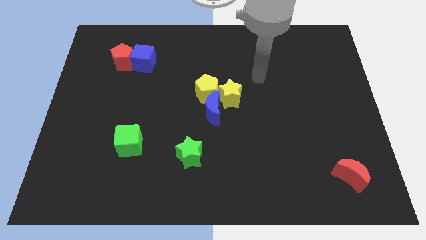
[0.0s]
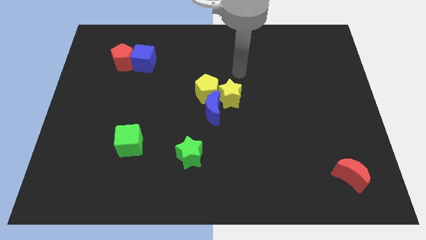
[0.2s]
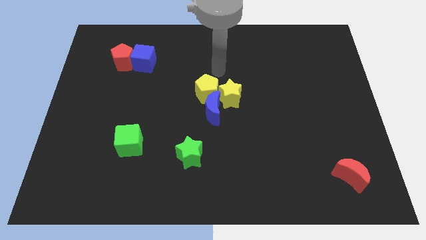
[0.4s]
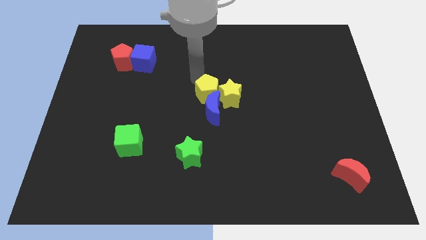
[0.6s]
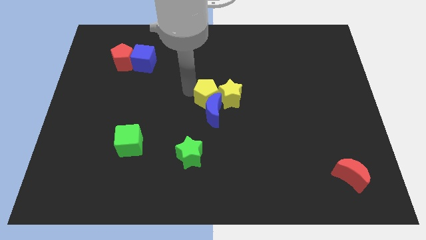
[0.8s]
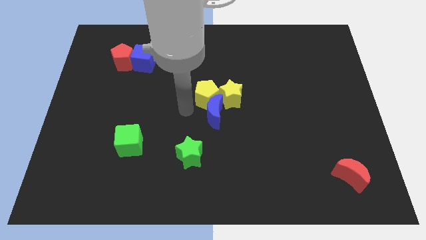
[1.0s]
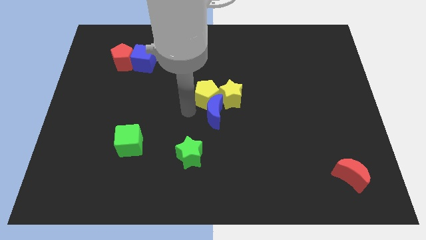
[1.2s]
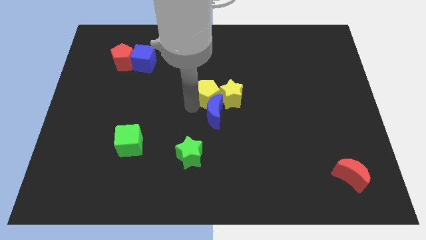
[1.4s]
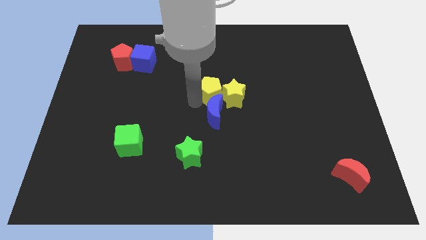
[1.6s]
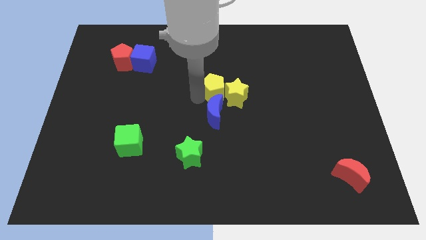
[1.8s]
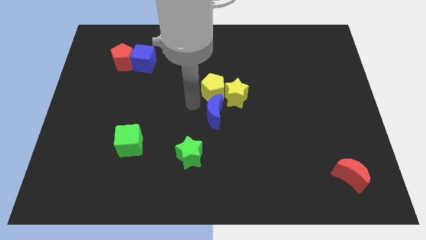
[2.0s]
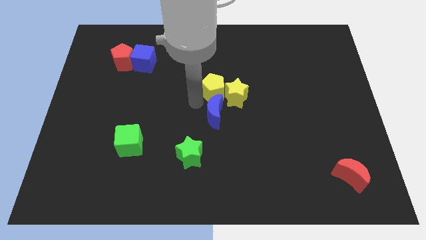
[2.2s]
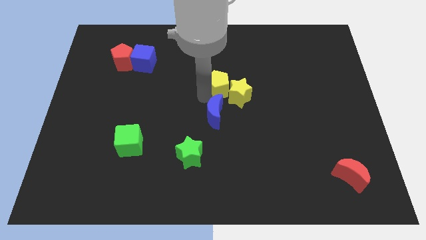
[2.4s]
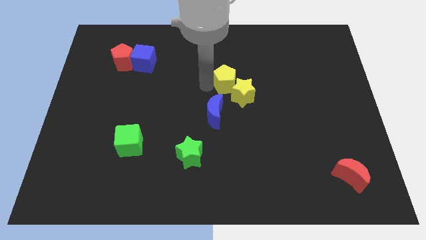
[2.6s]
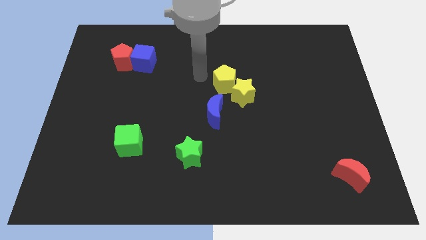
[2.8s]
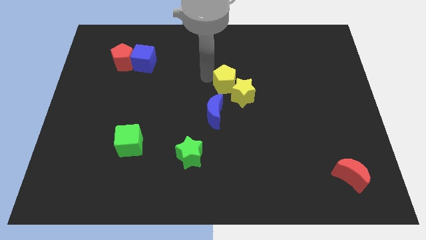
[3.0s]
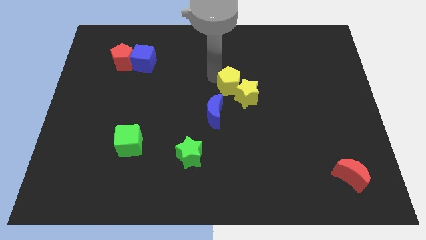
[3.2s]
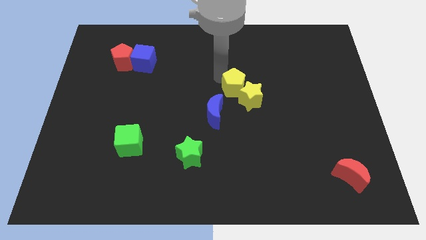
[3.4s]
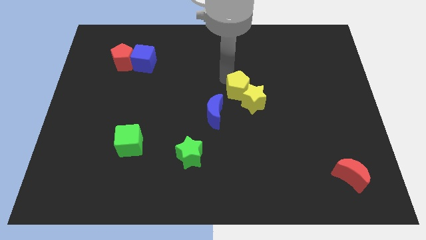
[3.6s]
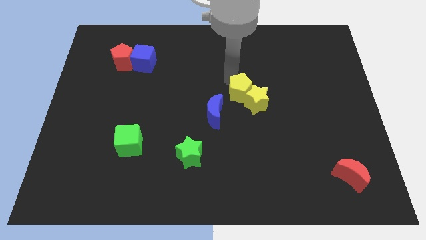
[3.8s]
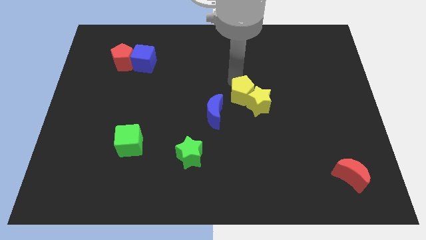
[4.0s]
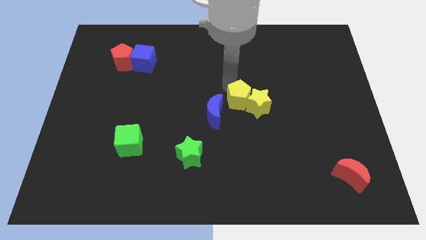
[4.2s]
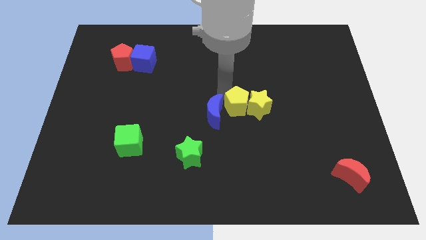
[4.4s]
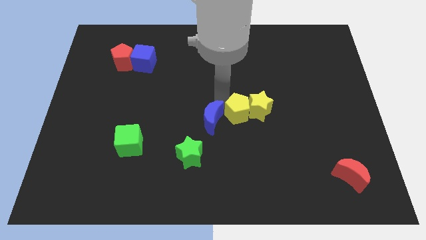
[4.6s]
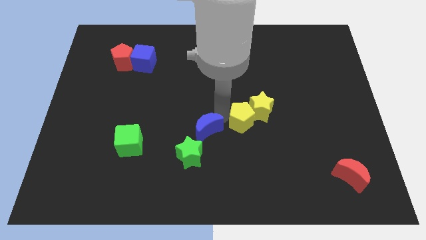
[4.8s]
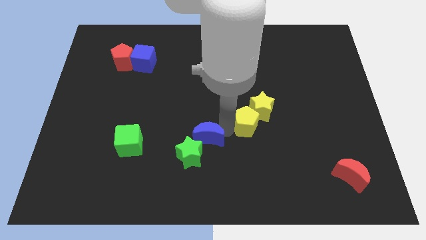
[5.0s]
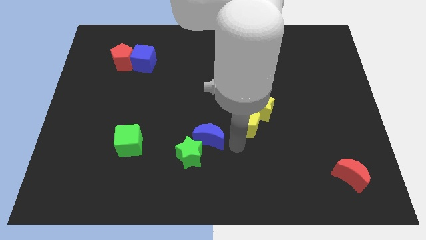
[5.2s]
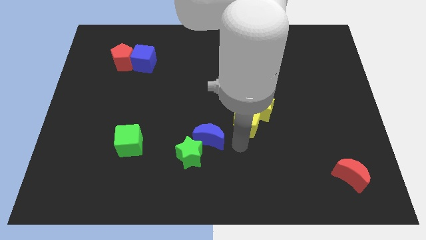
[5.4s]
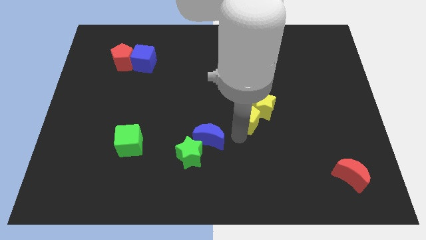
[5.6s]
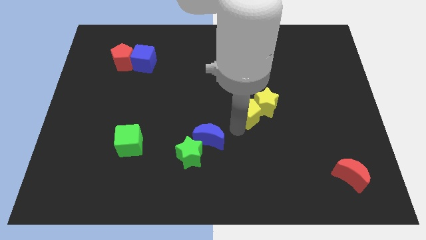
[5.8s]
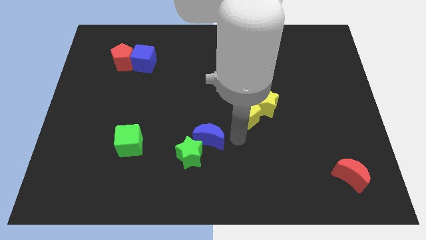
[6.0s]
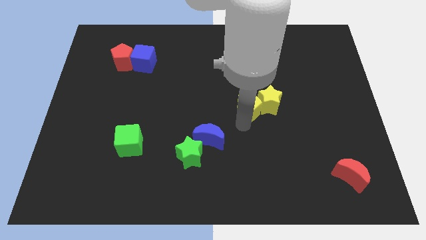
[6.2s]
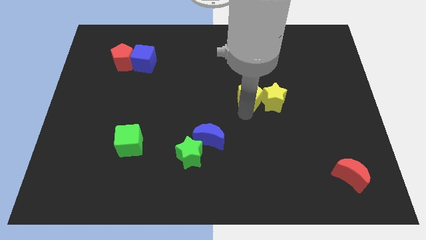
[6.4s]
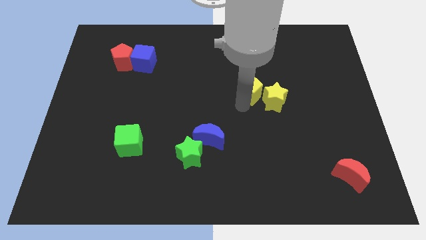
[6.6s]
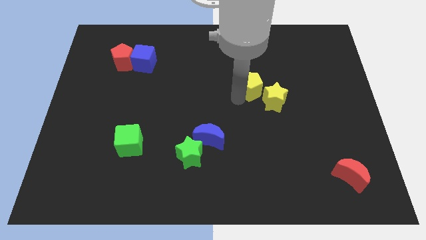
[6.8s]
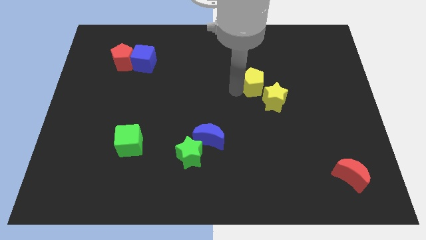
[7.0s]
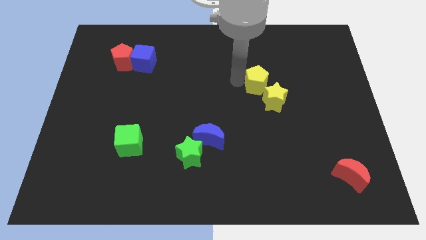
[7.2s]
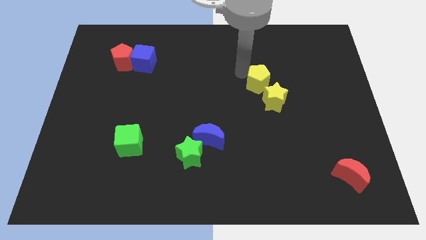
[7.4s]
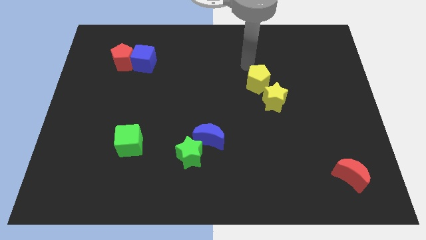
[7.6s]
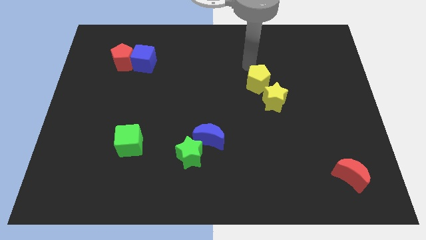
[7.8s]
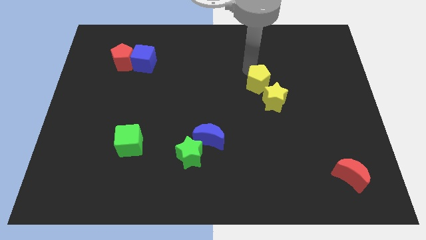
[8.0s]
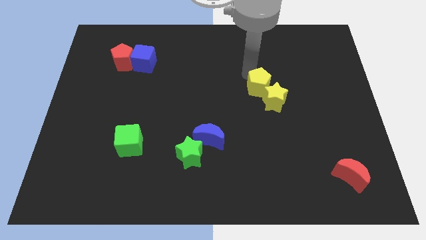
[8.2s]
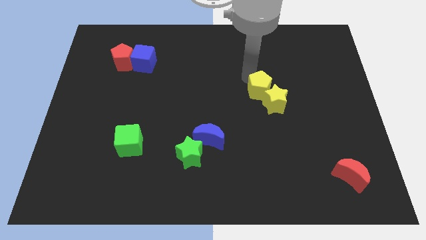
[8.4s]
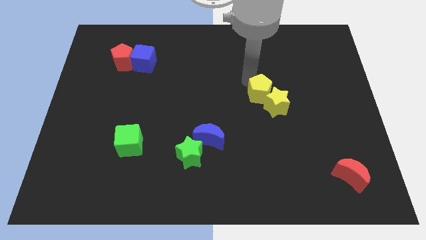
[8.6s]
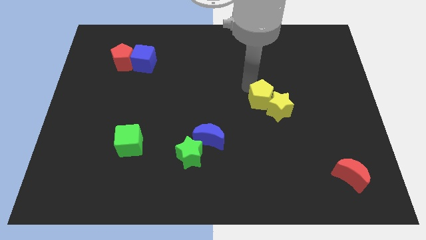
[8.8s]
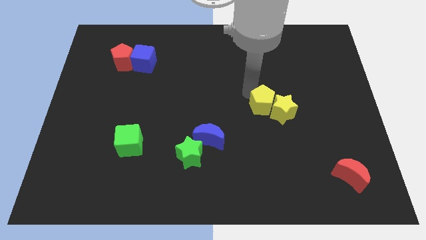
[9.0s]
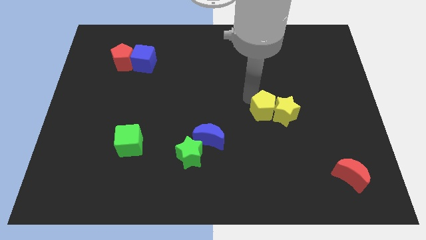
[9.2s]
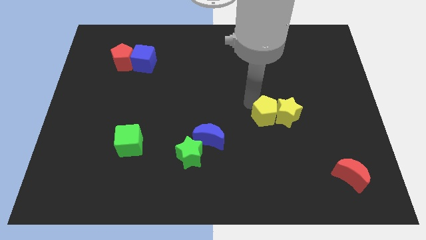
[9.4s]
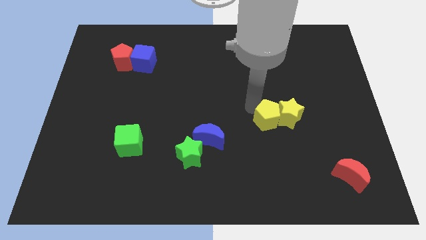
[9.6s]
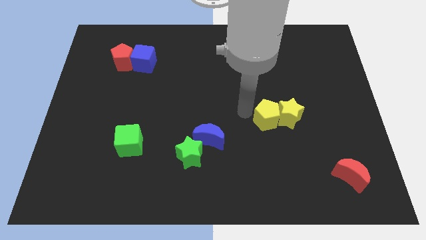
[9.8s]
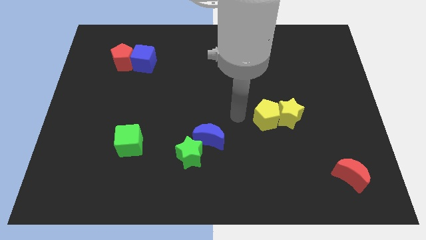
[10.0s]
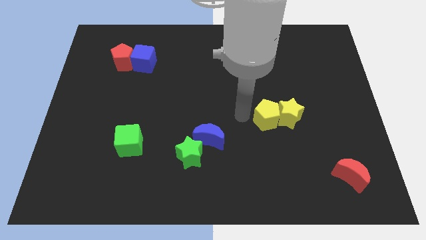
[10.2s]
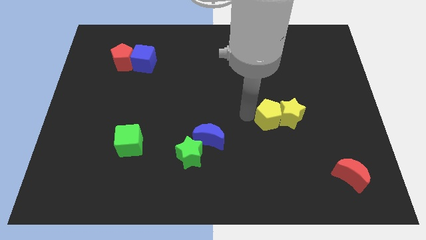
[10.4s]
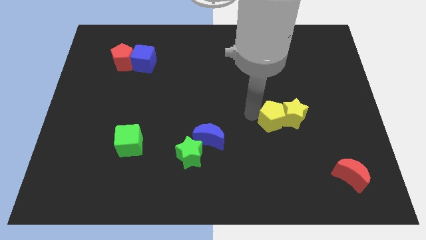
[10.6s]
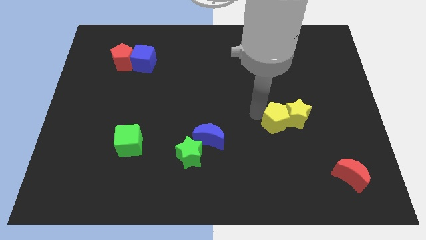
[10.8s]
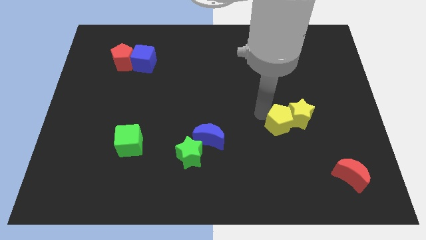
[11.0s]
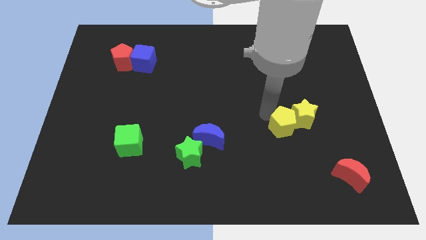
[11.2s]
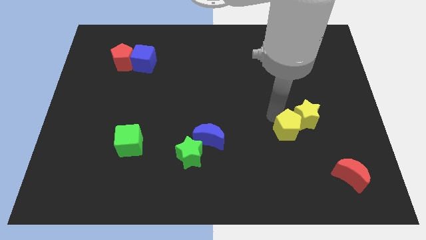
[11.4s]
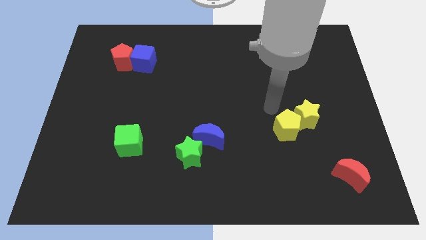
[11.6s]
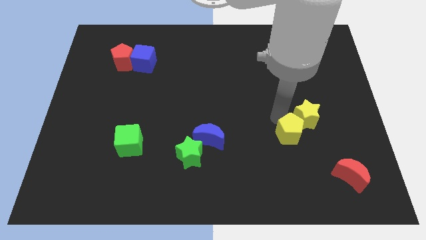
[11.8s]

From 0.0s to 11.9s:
push the yellow pentagon diagonally downwards and right

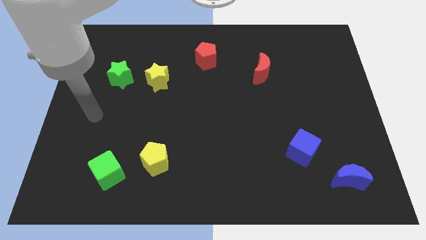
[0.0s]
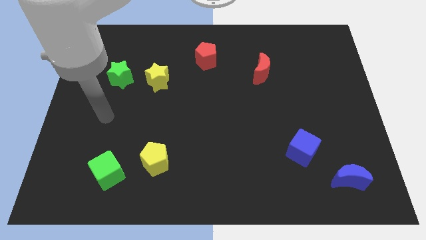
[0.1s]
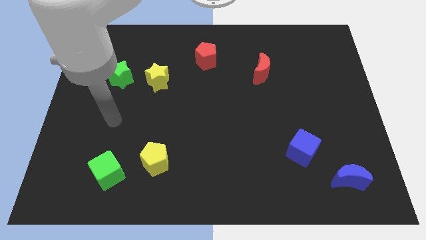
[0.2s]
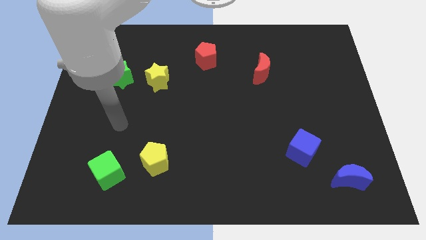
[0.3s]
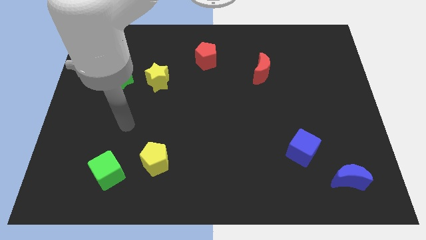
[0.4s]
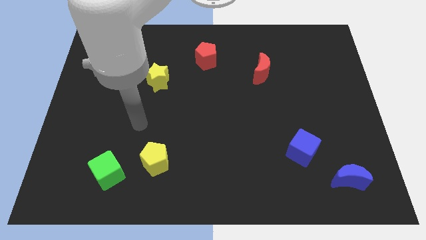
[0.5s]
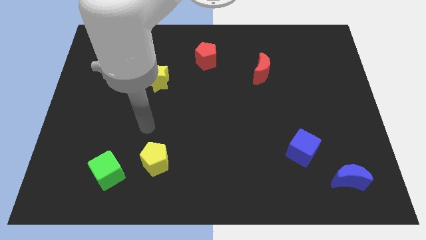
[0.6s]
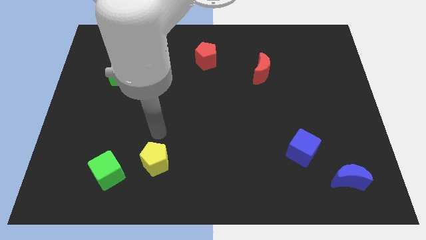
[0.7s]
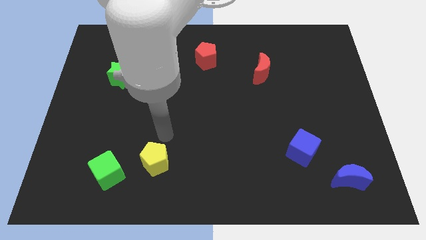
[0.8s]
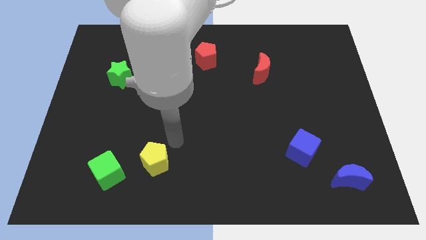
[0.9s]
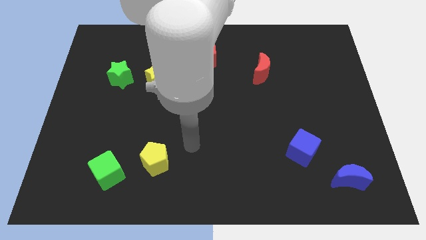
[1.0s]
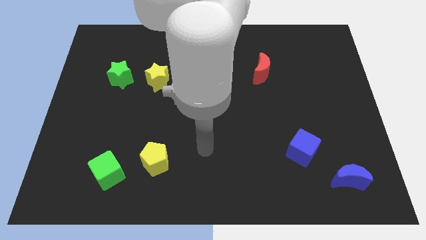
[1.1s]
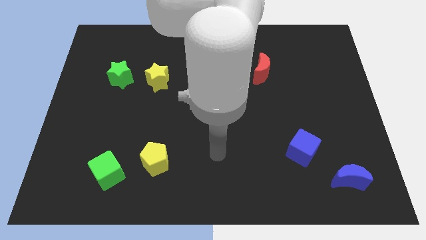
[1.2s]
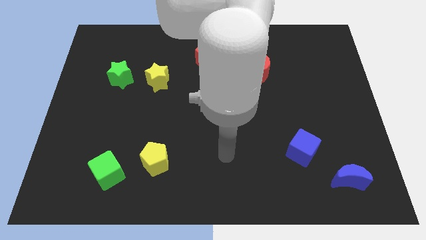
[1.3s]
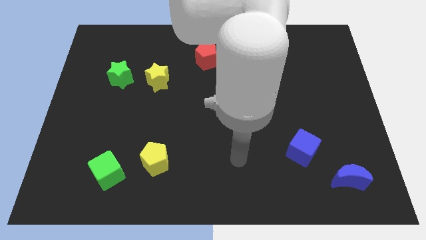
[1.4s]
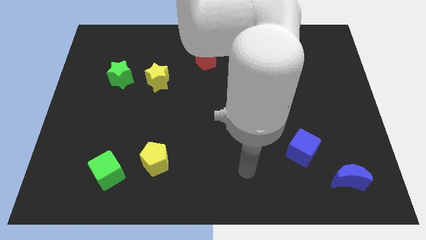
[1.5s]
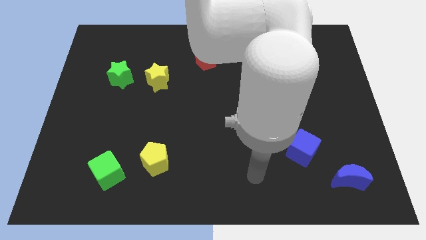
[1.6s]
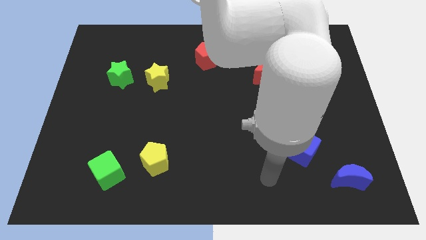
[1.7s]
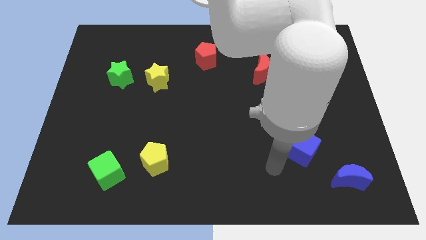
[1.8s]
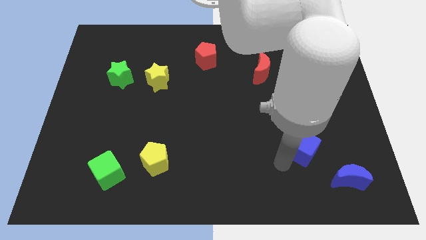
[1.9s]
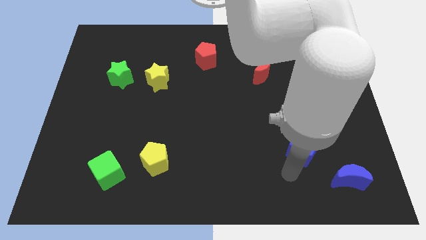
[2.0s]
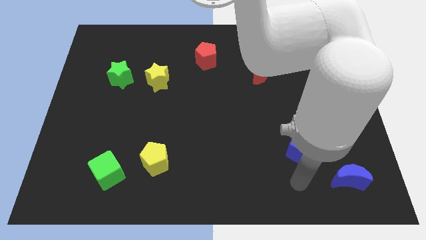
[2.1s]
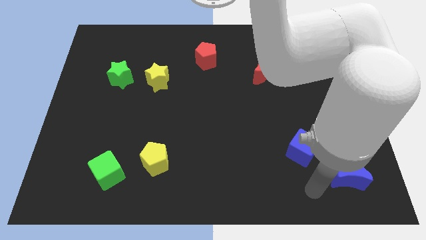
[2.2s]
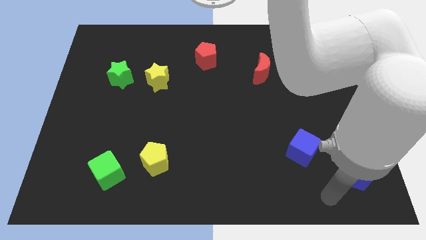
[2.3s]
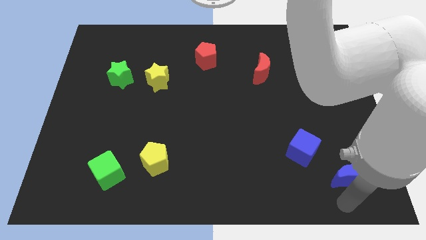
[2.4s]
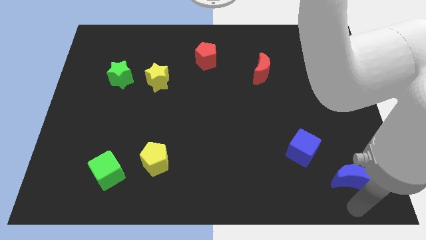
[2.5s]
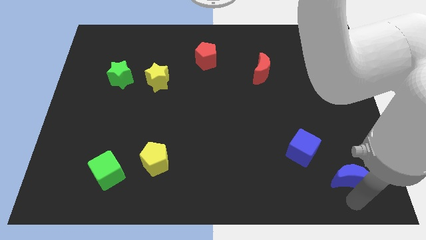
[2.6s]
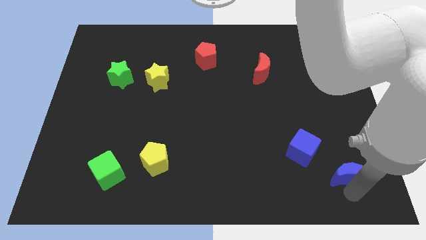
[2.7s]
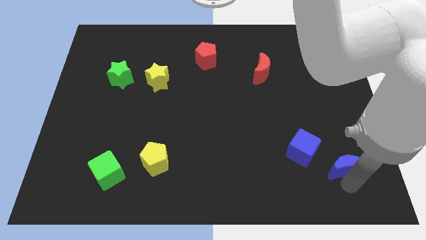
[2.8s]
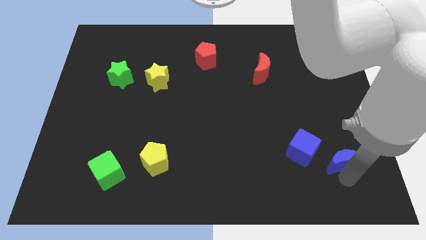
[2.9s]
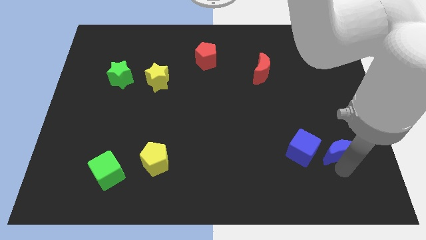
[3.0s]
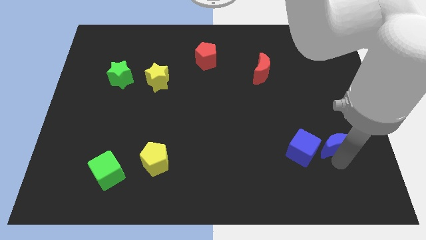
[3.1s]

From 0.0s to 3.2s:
slide the blue moon a little upwards
